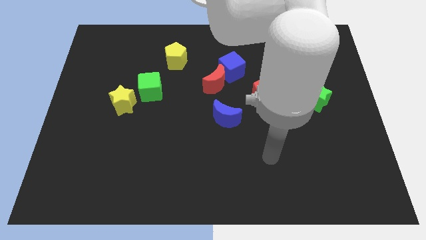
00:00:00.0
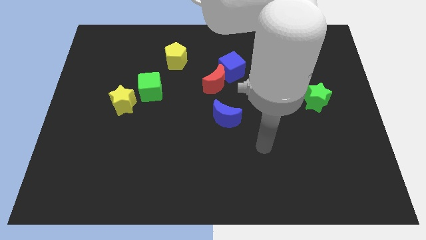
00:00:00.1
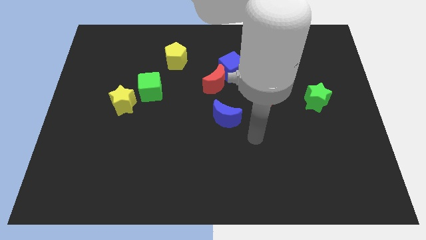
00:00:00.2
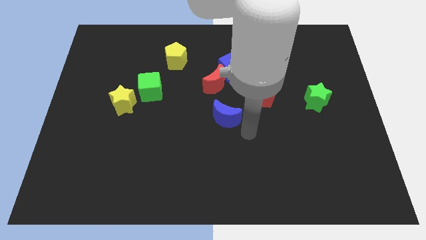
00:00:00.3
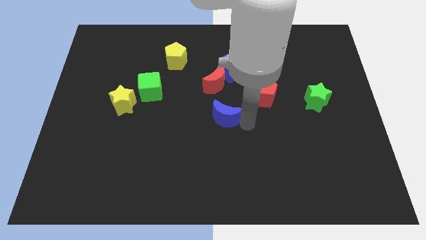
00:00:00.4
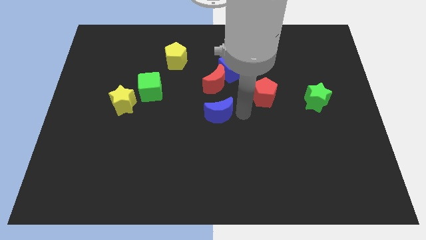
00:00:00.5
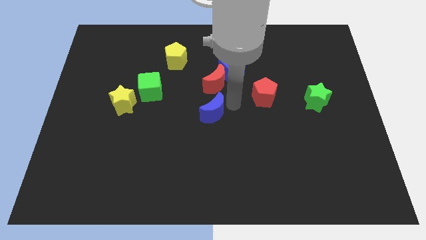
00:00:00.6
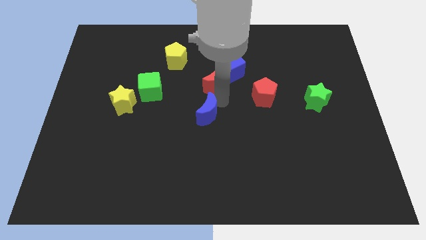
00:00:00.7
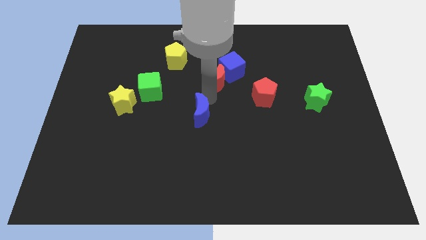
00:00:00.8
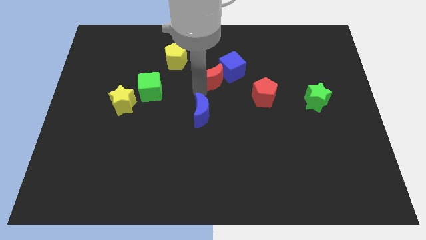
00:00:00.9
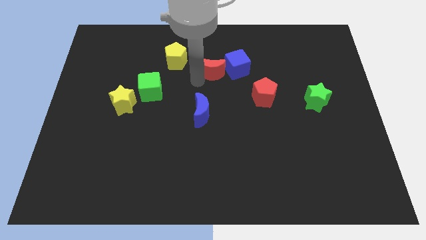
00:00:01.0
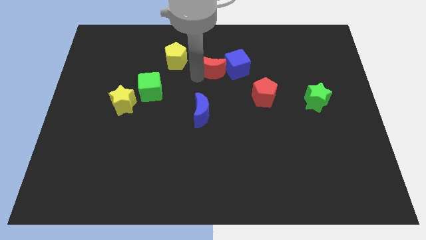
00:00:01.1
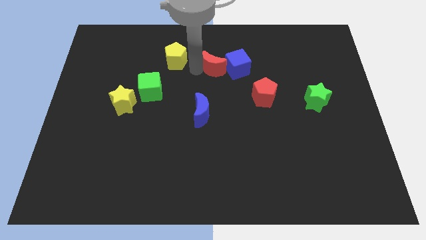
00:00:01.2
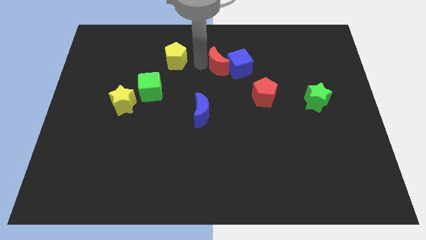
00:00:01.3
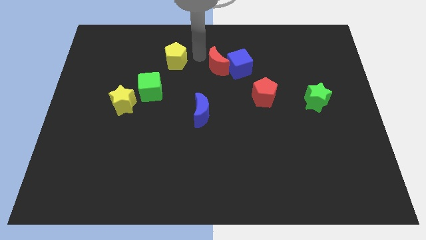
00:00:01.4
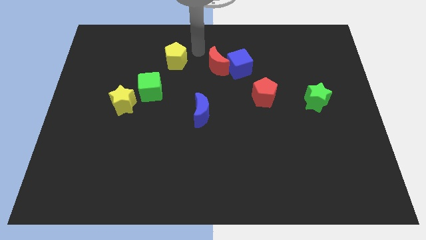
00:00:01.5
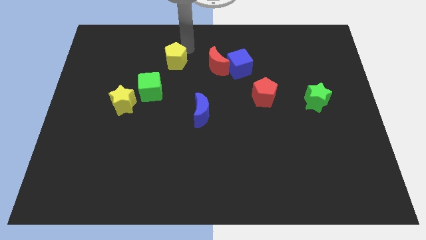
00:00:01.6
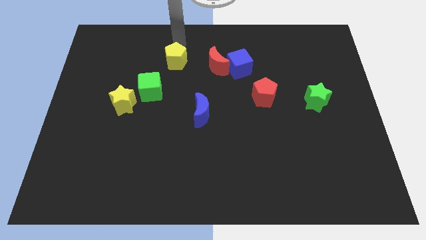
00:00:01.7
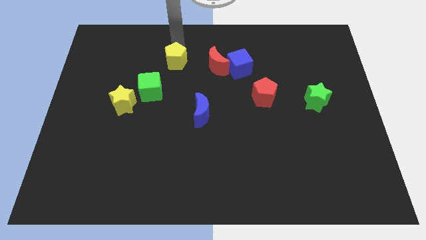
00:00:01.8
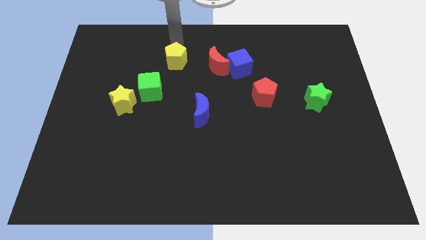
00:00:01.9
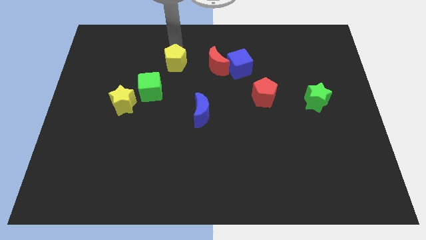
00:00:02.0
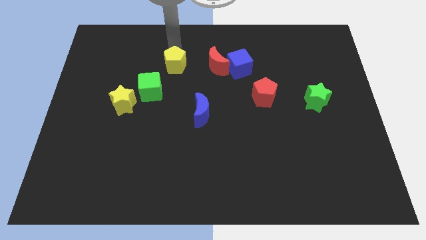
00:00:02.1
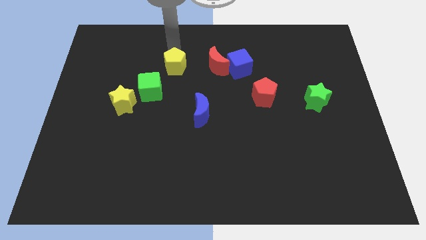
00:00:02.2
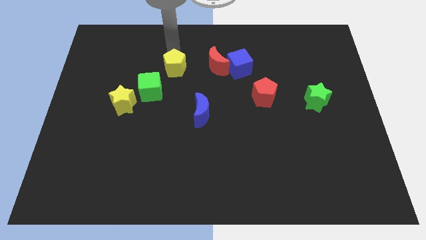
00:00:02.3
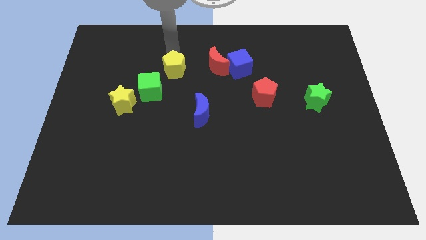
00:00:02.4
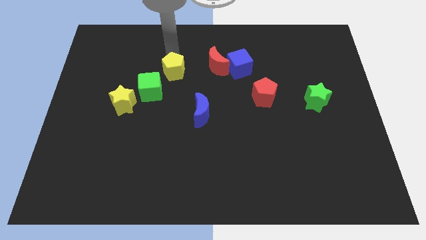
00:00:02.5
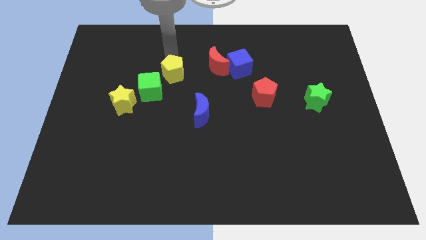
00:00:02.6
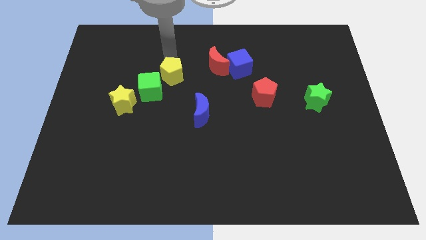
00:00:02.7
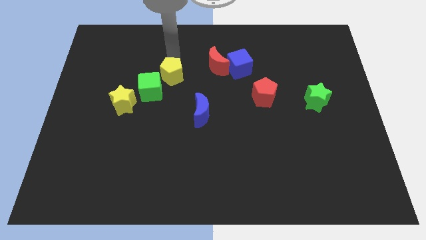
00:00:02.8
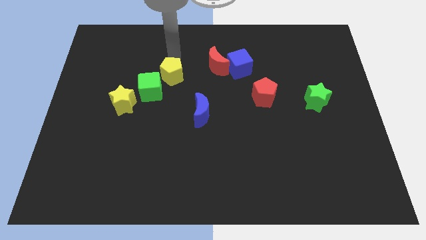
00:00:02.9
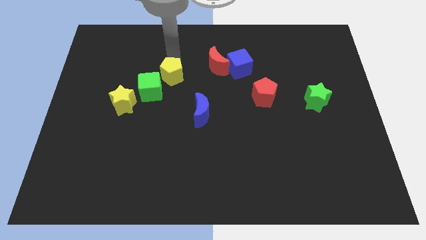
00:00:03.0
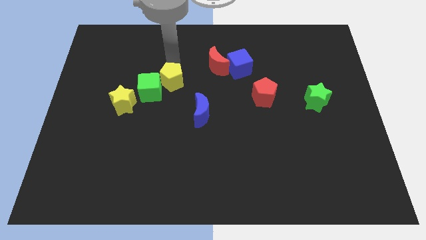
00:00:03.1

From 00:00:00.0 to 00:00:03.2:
move the yellow pentagon a bit downwards

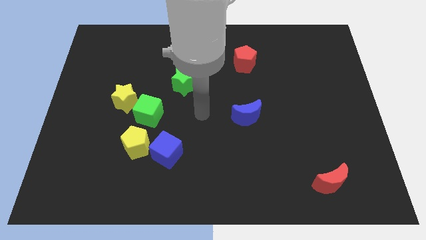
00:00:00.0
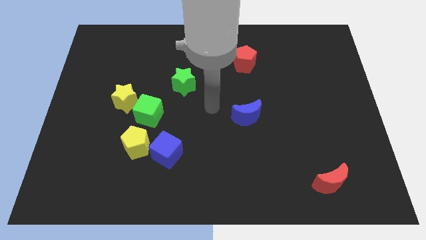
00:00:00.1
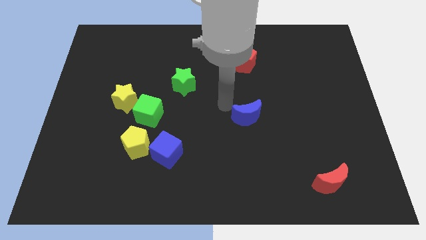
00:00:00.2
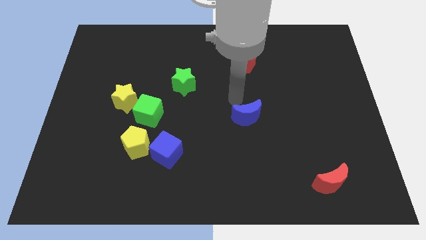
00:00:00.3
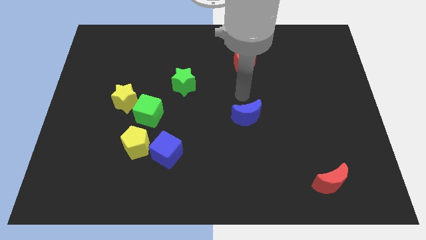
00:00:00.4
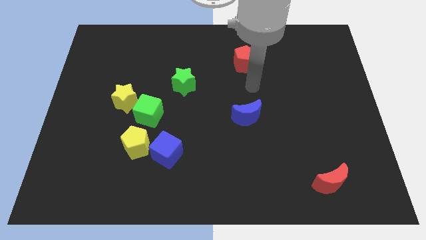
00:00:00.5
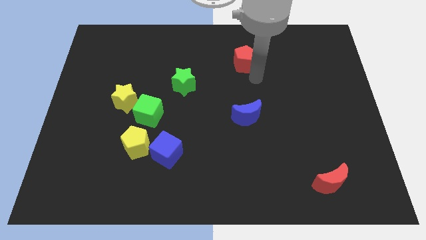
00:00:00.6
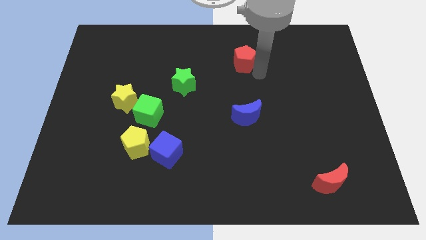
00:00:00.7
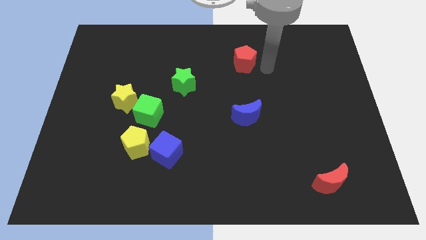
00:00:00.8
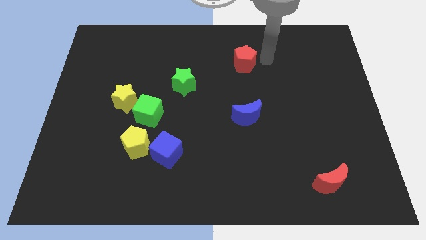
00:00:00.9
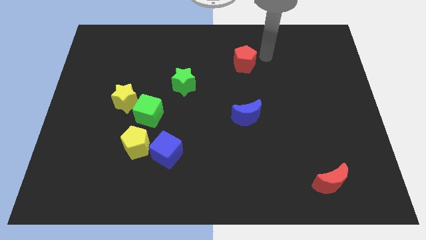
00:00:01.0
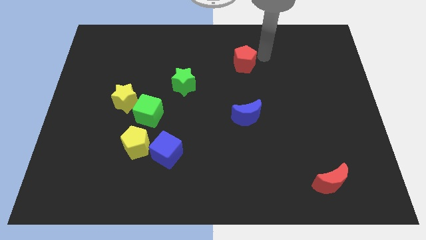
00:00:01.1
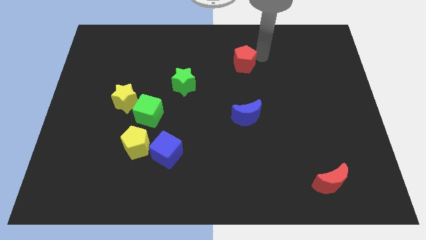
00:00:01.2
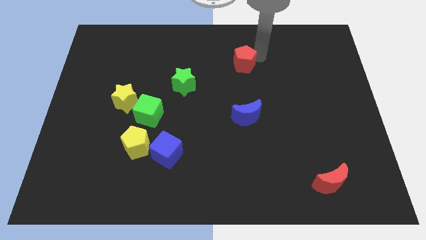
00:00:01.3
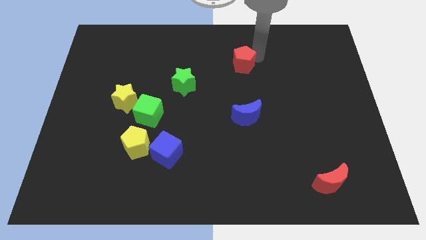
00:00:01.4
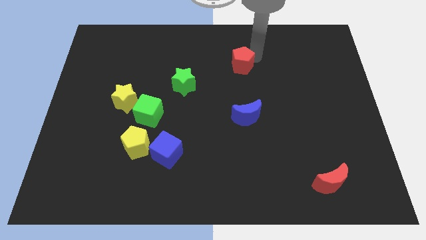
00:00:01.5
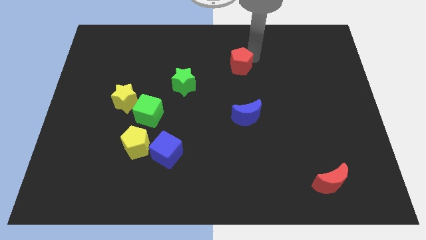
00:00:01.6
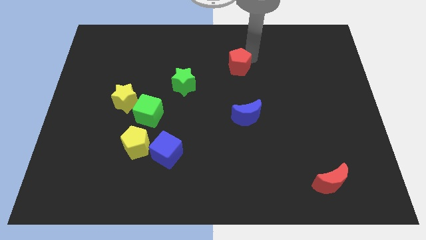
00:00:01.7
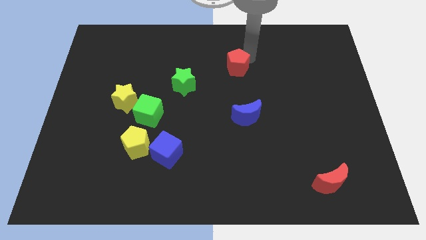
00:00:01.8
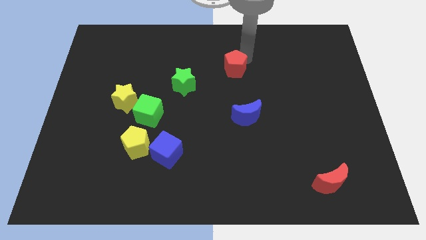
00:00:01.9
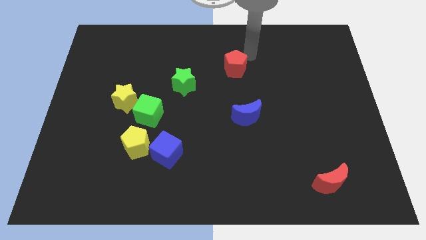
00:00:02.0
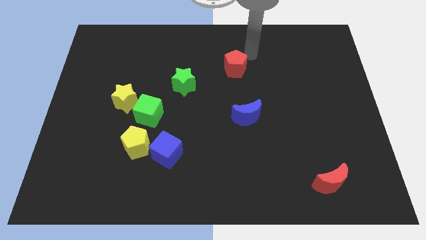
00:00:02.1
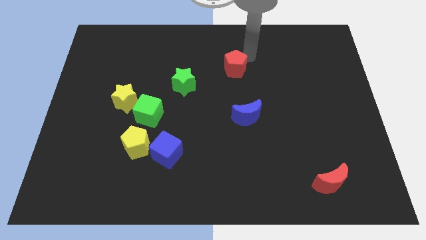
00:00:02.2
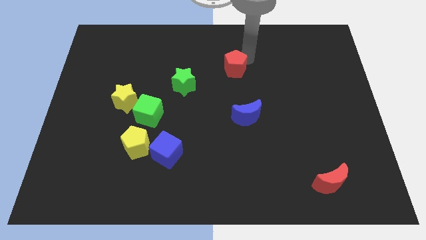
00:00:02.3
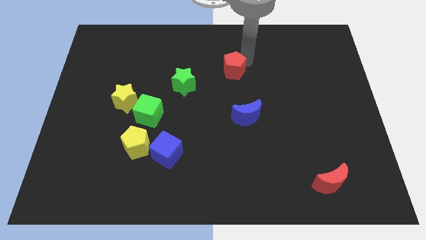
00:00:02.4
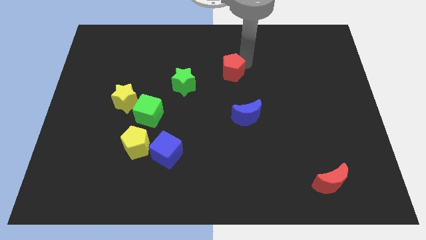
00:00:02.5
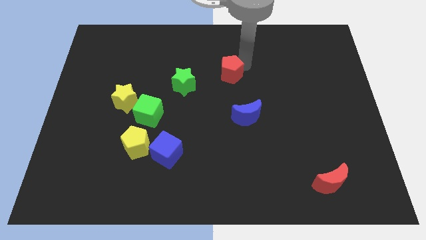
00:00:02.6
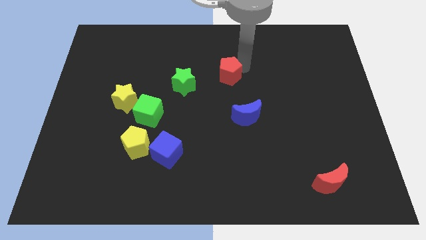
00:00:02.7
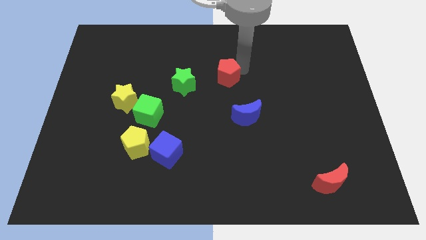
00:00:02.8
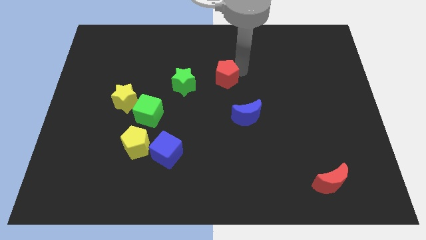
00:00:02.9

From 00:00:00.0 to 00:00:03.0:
slightly slide the red pentagon diagonally downwards and left

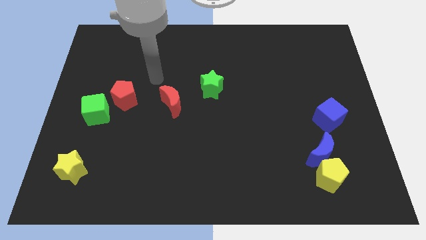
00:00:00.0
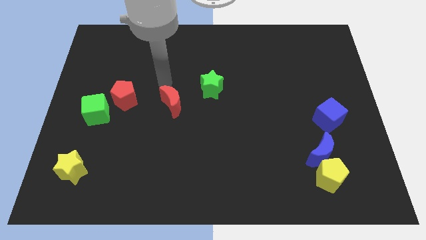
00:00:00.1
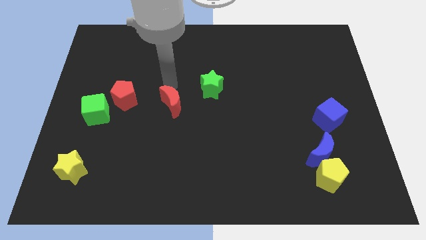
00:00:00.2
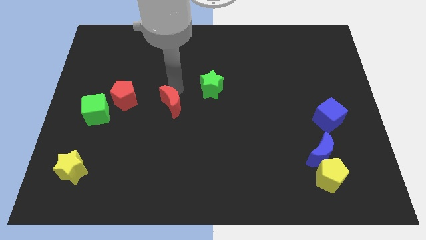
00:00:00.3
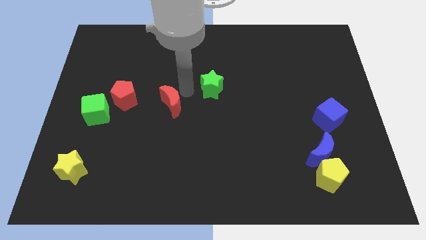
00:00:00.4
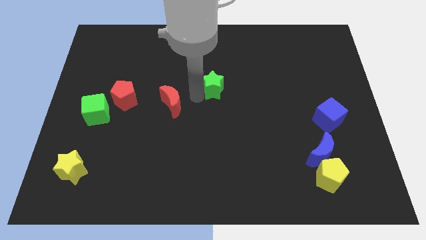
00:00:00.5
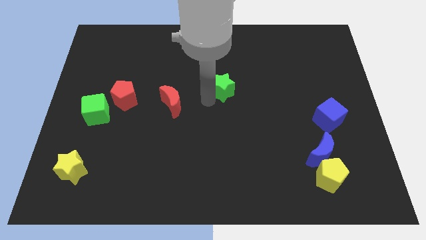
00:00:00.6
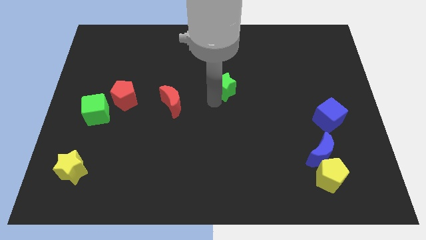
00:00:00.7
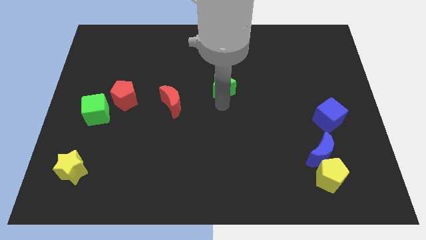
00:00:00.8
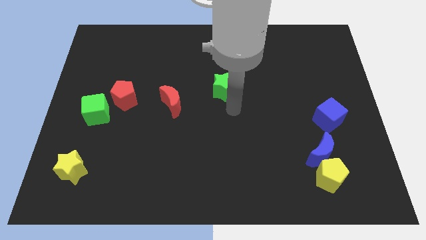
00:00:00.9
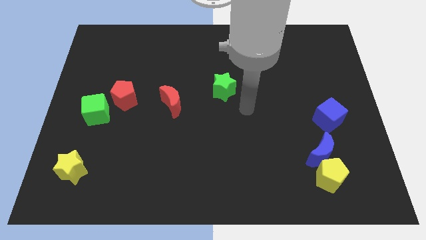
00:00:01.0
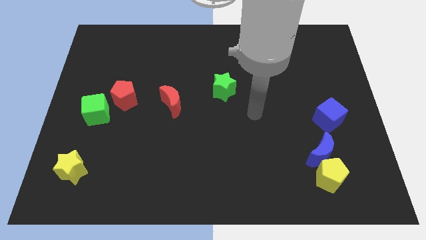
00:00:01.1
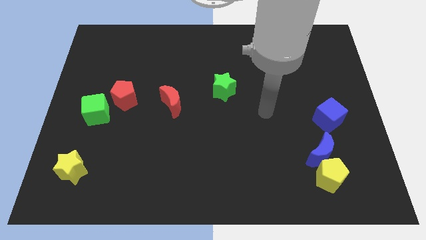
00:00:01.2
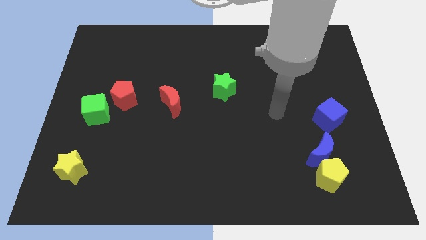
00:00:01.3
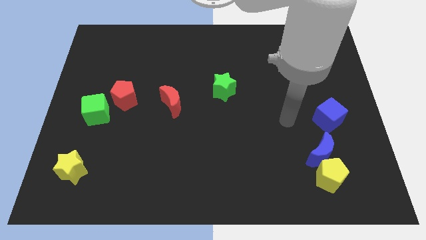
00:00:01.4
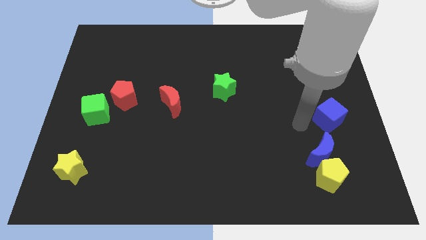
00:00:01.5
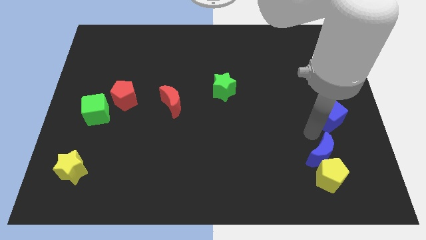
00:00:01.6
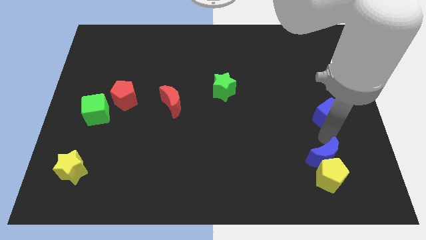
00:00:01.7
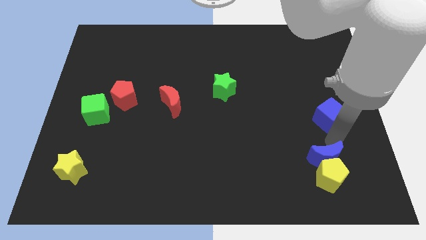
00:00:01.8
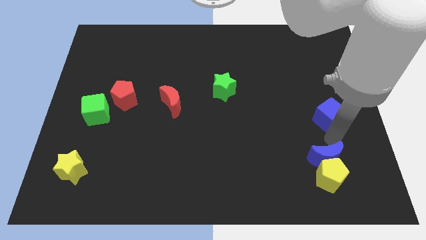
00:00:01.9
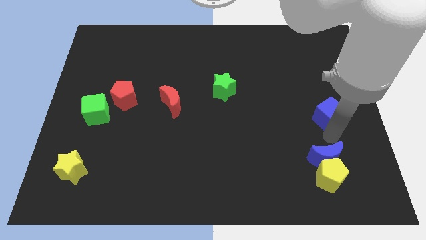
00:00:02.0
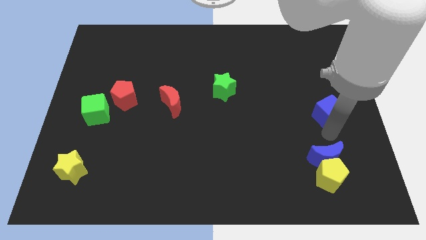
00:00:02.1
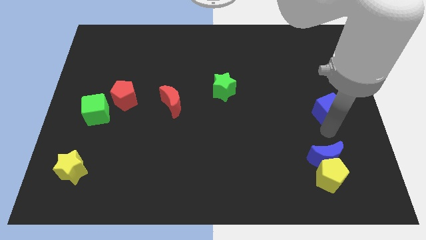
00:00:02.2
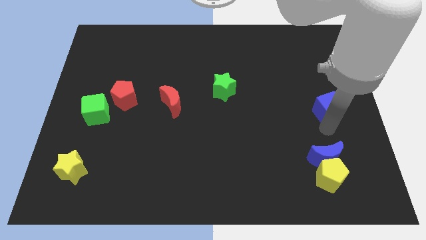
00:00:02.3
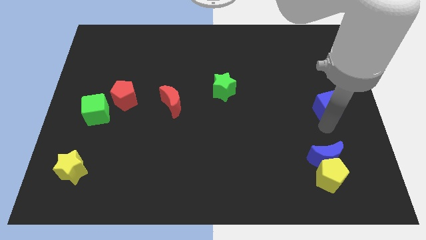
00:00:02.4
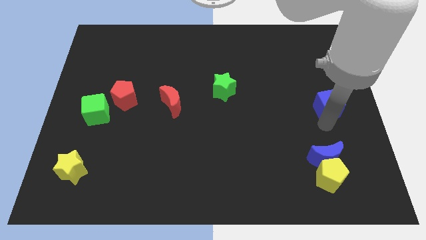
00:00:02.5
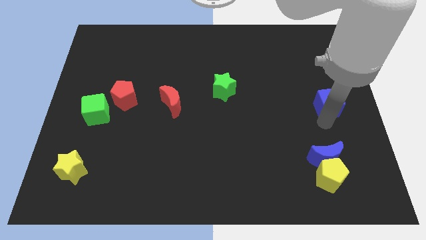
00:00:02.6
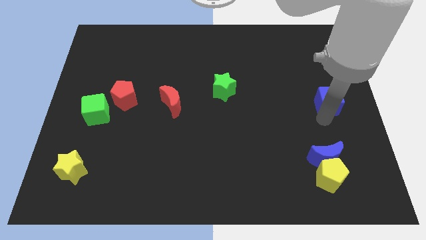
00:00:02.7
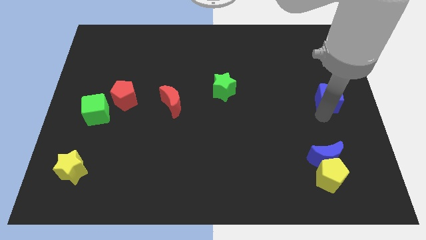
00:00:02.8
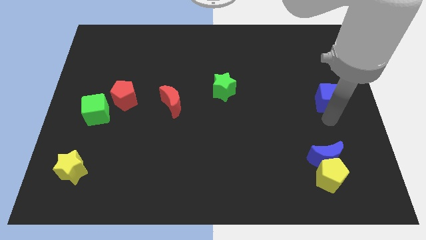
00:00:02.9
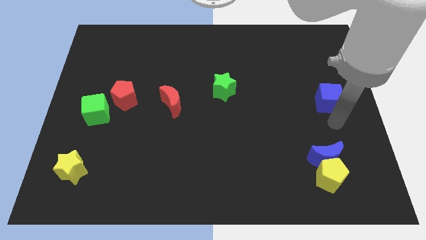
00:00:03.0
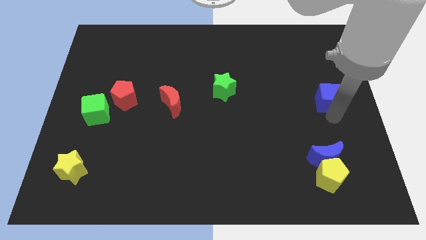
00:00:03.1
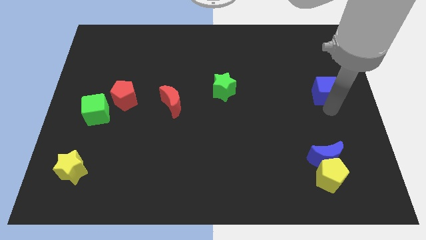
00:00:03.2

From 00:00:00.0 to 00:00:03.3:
slightly push the blue cube upwards
